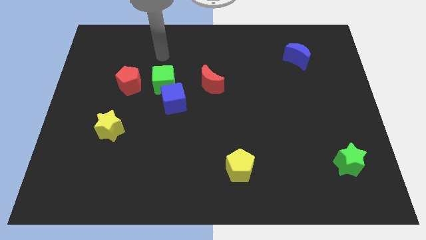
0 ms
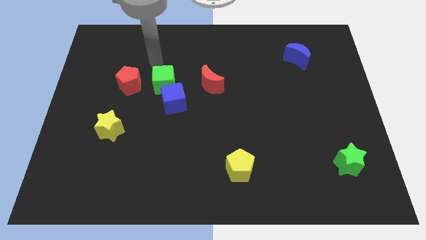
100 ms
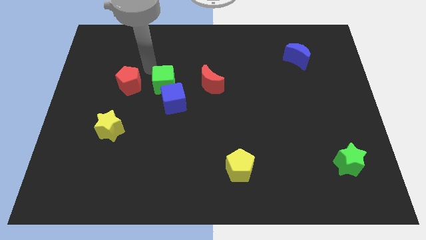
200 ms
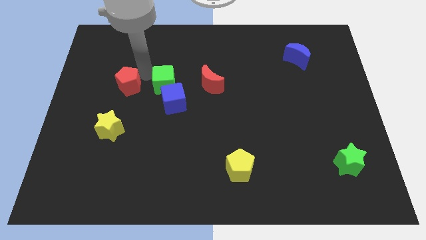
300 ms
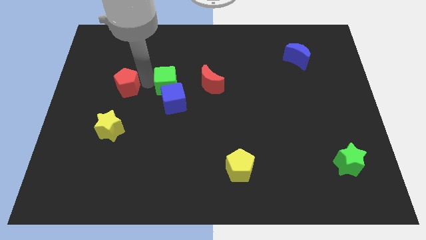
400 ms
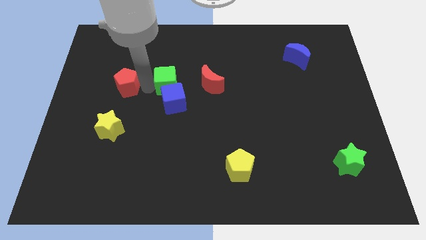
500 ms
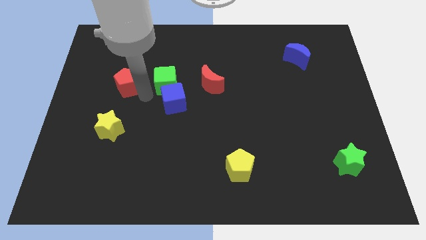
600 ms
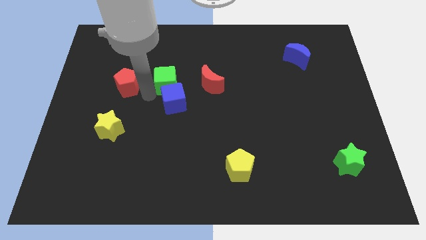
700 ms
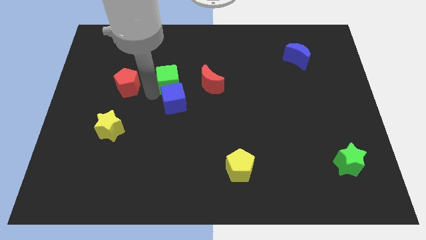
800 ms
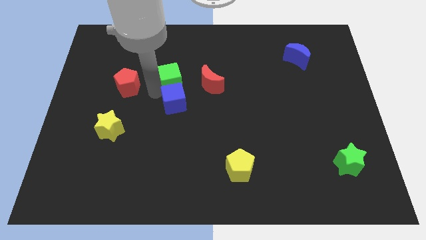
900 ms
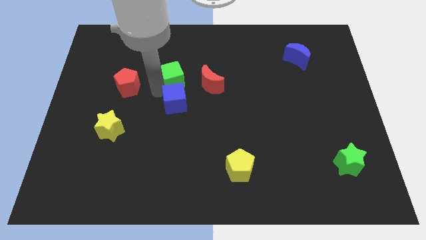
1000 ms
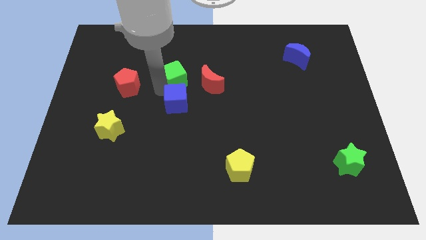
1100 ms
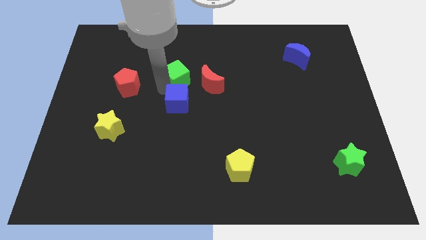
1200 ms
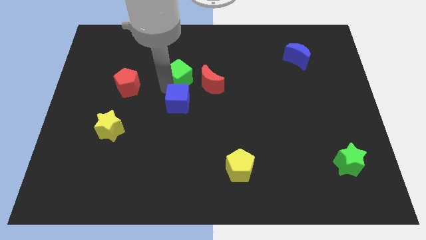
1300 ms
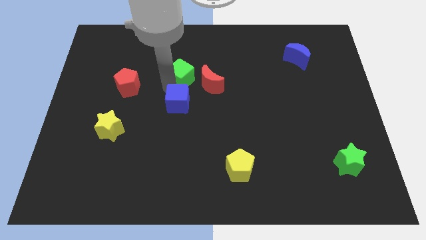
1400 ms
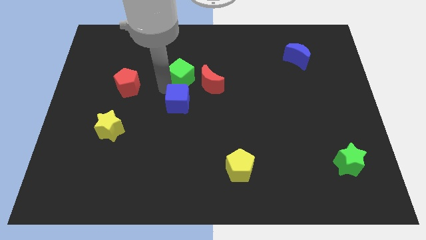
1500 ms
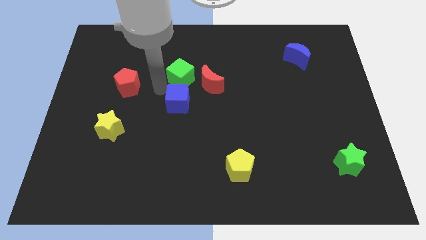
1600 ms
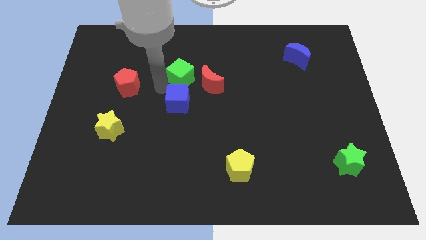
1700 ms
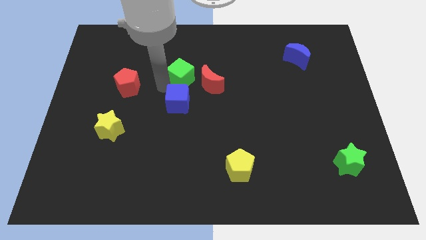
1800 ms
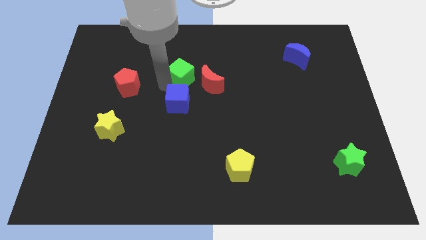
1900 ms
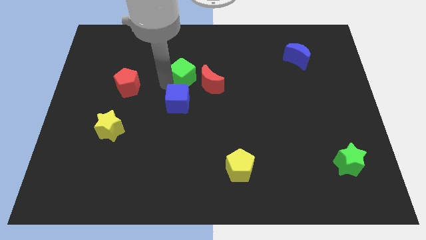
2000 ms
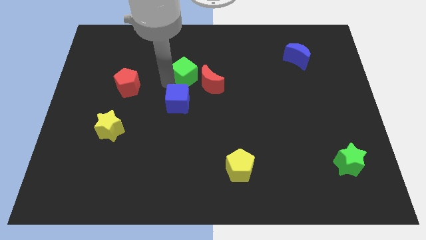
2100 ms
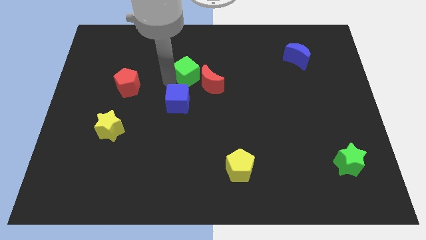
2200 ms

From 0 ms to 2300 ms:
move the green cube away from the blue cube and red pentagon

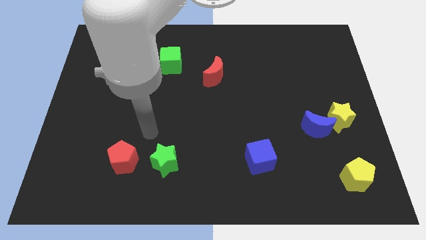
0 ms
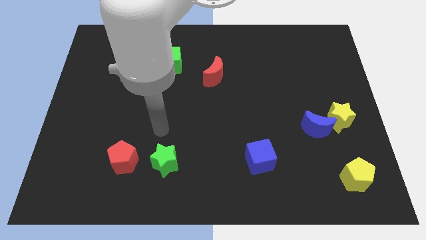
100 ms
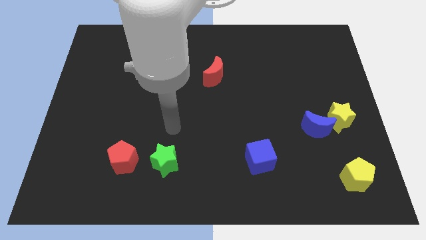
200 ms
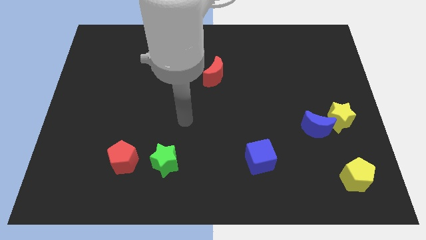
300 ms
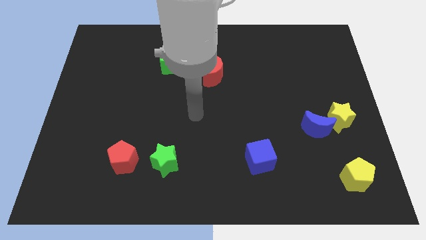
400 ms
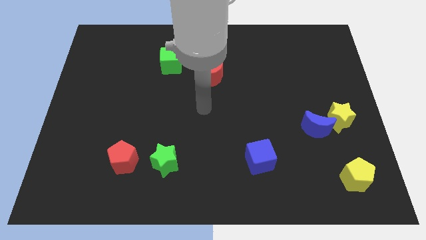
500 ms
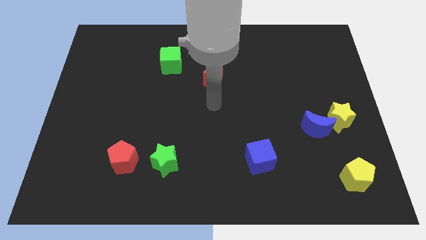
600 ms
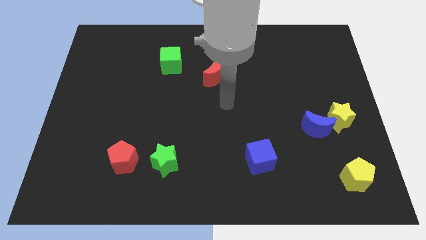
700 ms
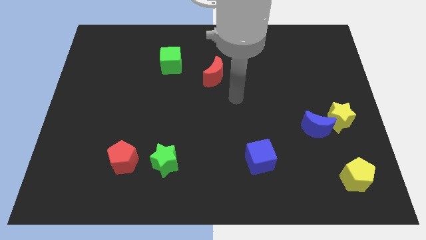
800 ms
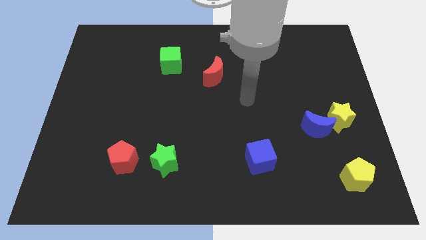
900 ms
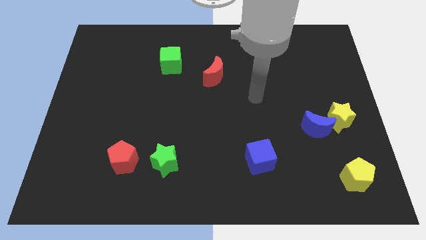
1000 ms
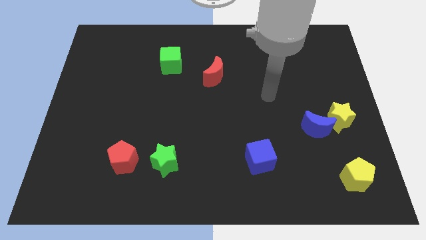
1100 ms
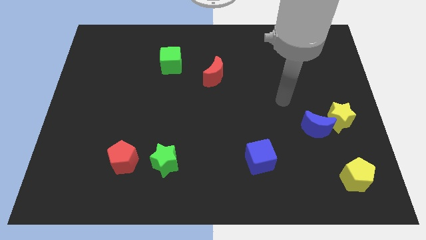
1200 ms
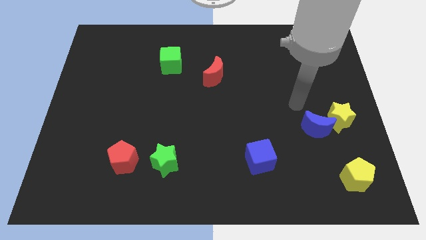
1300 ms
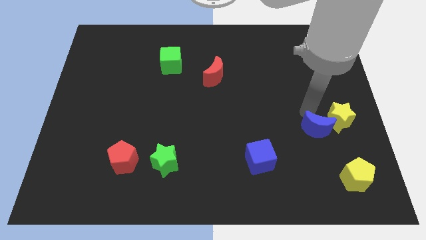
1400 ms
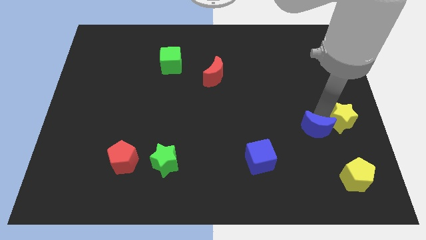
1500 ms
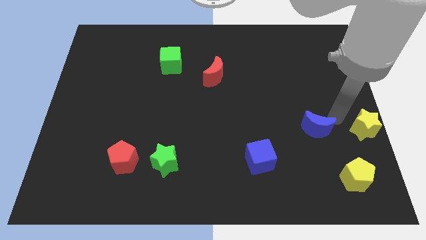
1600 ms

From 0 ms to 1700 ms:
pull the blue moon apart from the yellow star

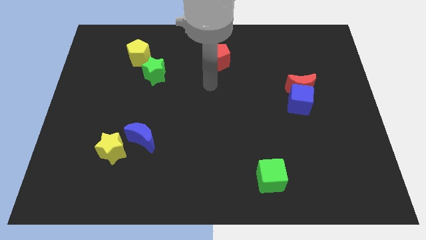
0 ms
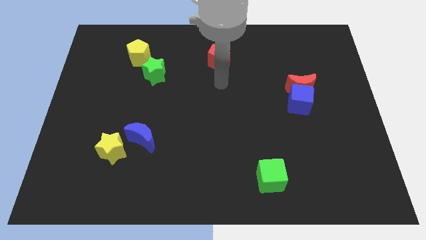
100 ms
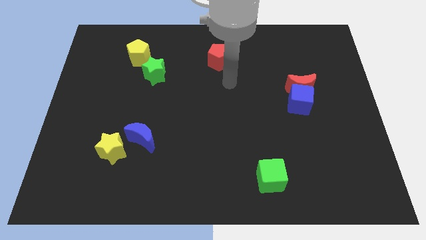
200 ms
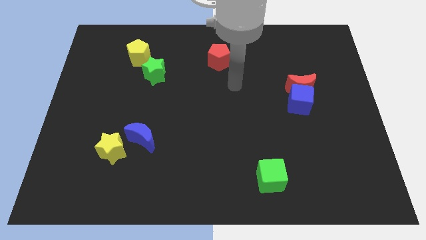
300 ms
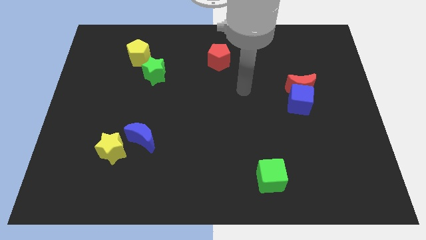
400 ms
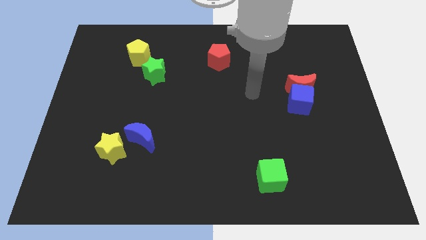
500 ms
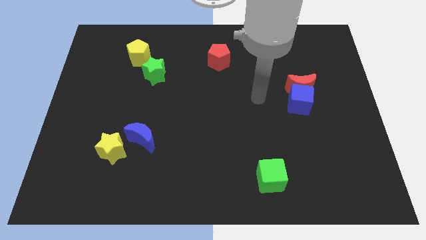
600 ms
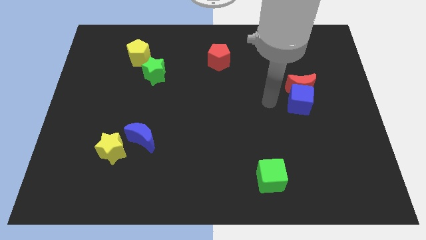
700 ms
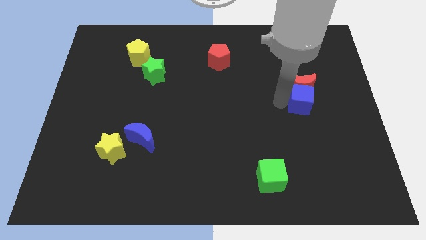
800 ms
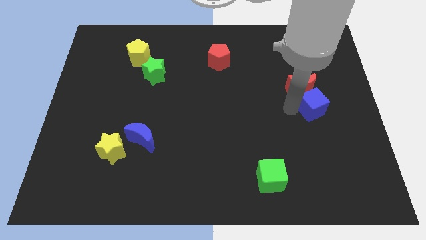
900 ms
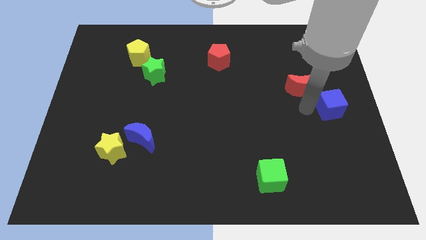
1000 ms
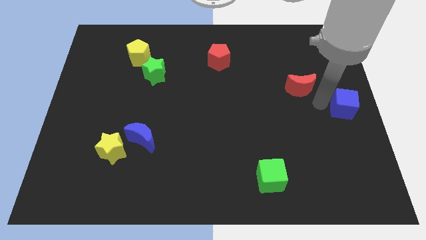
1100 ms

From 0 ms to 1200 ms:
pull the red moon apart from the blue cube

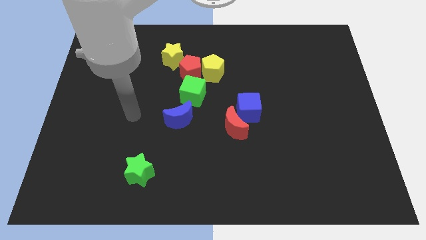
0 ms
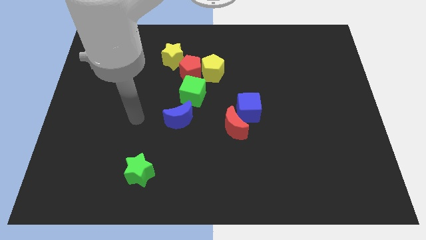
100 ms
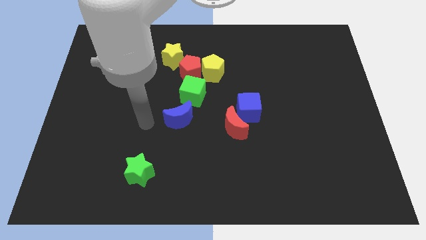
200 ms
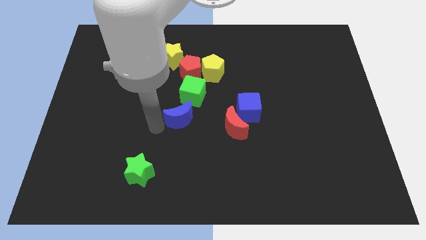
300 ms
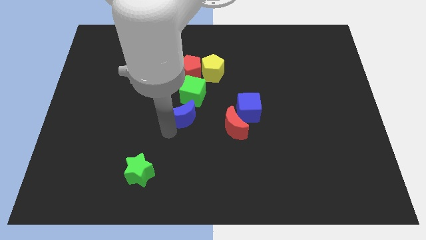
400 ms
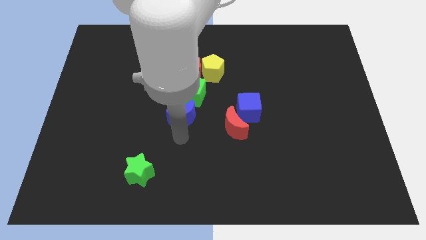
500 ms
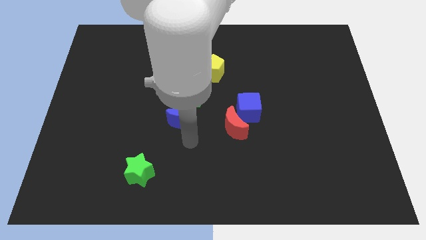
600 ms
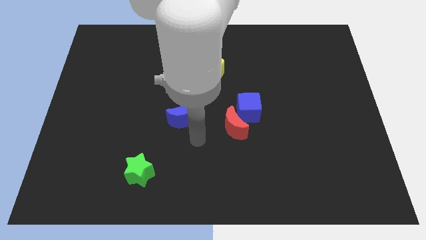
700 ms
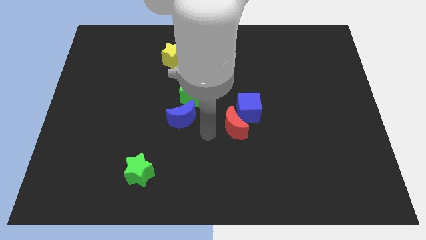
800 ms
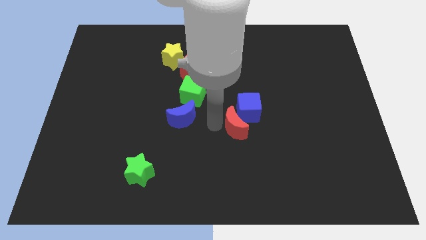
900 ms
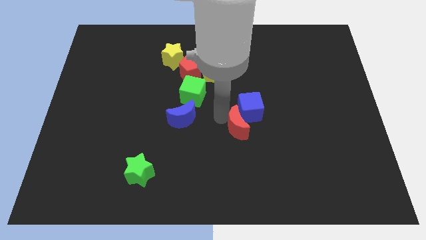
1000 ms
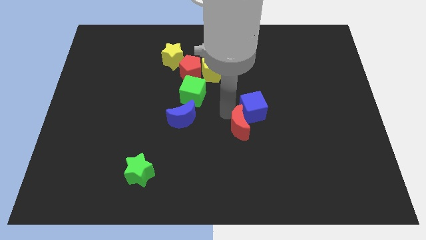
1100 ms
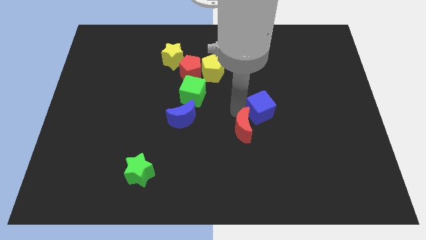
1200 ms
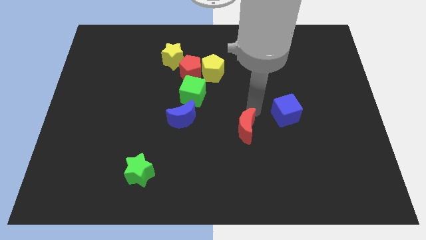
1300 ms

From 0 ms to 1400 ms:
separate the red moon from the blue cube

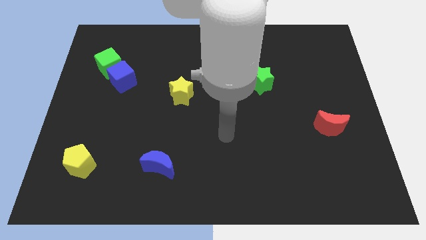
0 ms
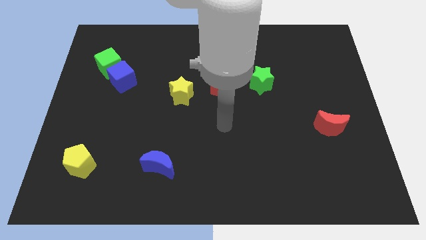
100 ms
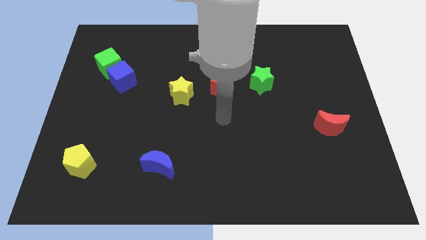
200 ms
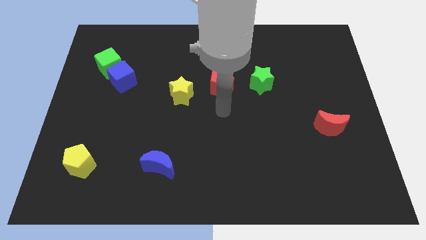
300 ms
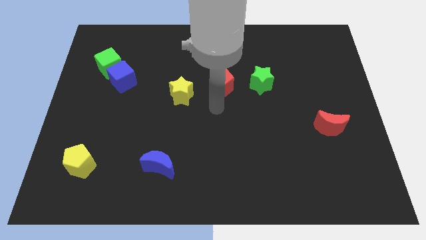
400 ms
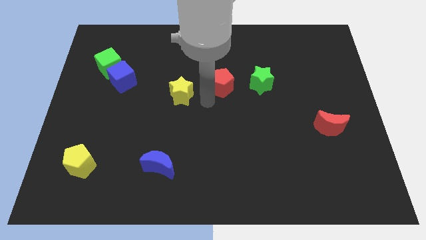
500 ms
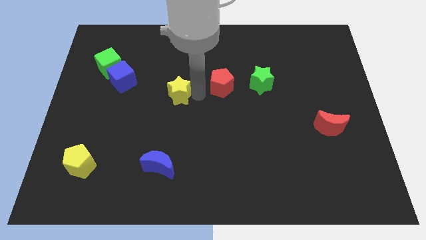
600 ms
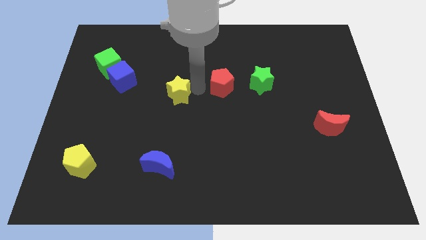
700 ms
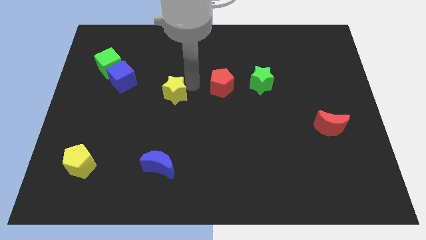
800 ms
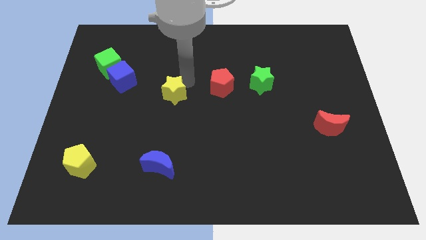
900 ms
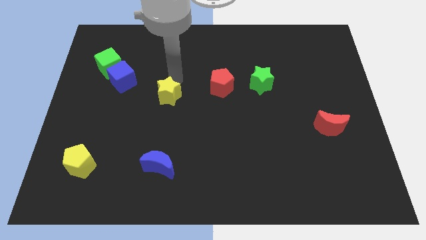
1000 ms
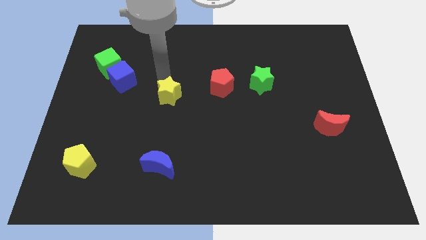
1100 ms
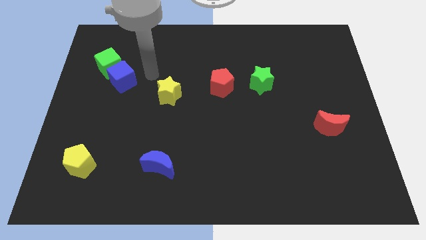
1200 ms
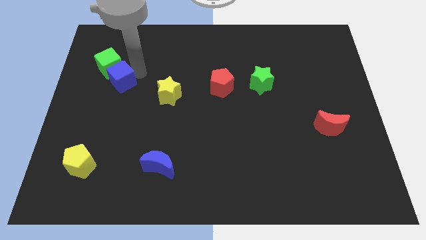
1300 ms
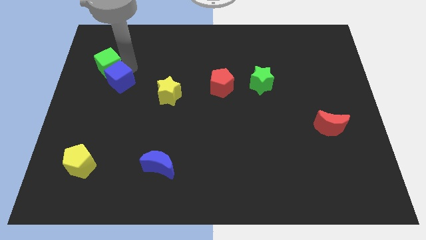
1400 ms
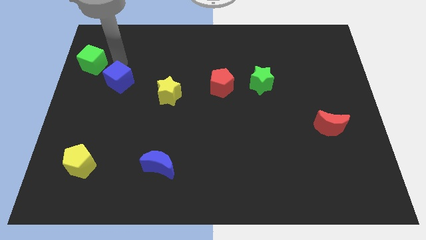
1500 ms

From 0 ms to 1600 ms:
separate the blue cube from the green cube

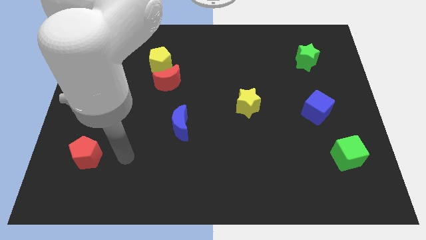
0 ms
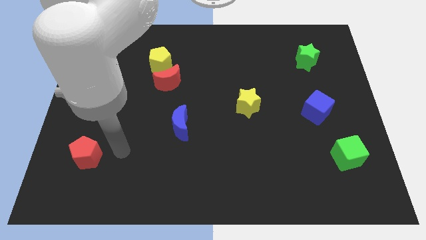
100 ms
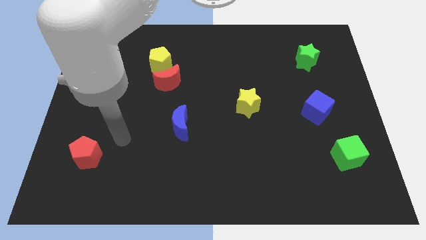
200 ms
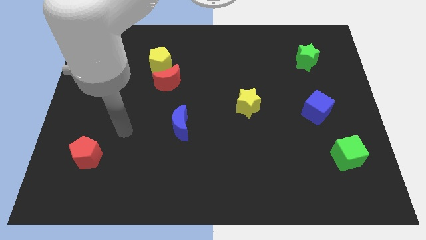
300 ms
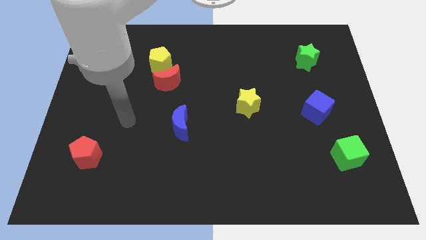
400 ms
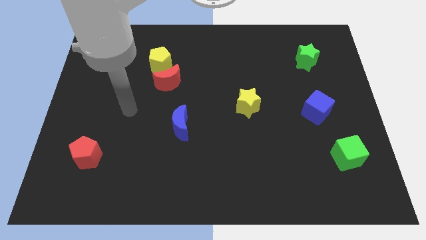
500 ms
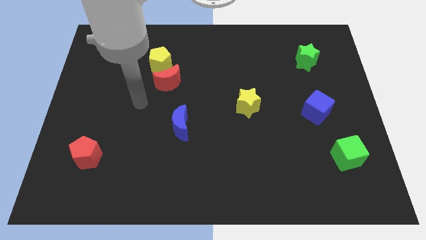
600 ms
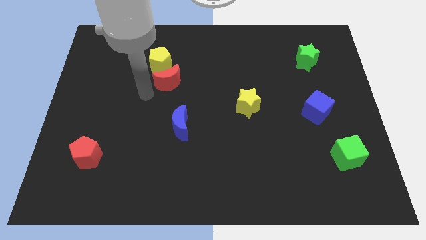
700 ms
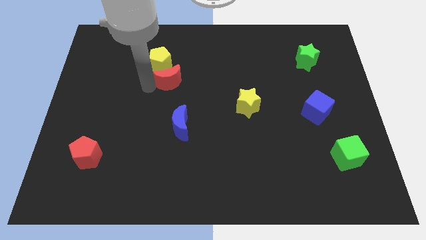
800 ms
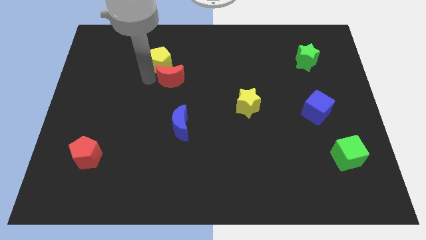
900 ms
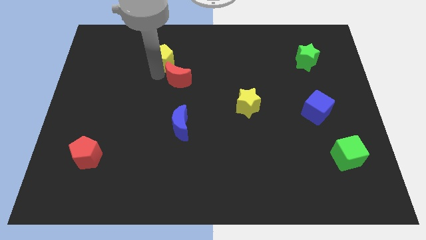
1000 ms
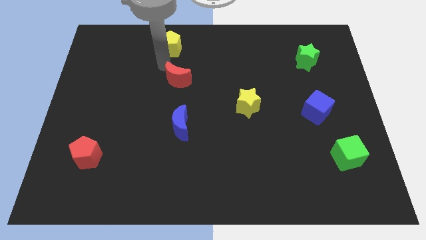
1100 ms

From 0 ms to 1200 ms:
move the red moon away from the yellow pentagon
